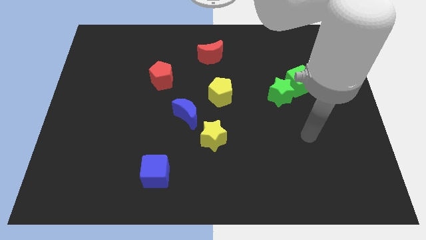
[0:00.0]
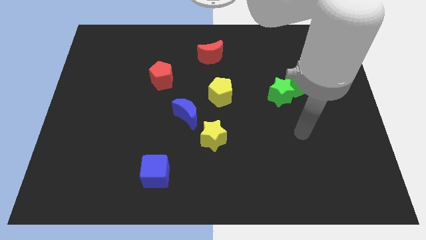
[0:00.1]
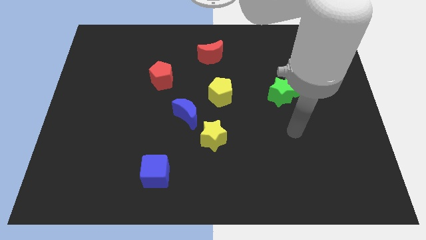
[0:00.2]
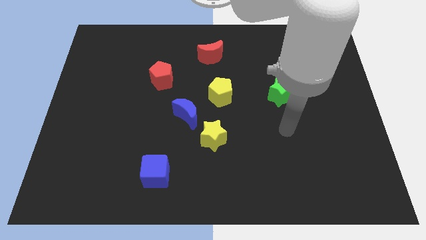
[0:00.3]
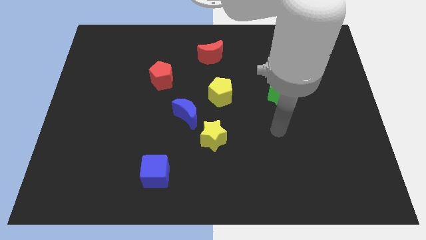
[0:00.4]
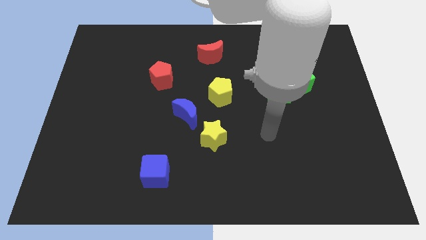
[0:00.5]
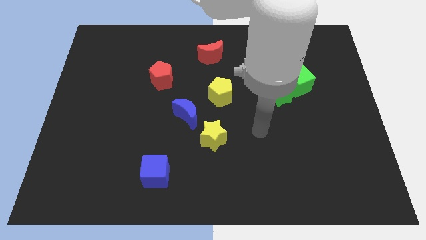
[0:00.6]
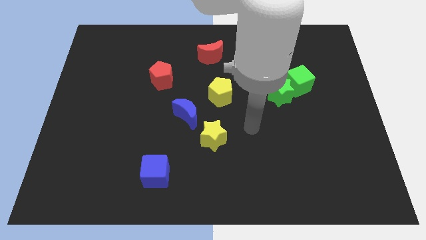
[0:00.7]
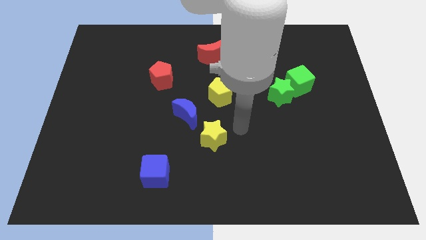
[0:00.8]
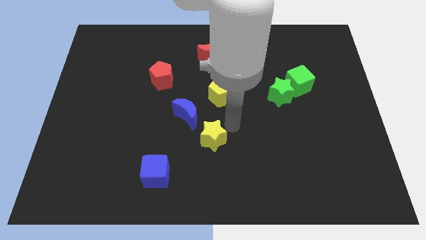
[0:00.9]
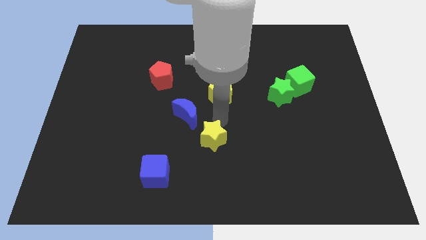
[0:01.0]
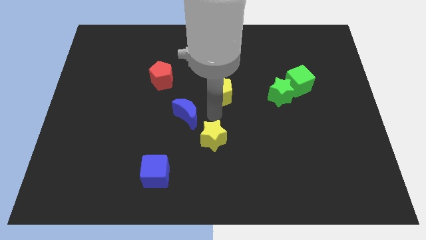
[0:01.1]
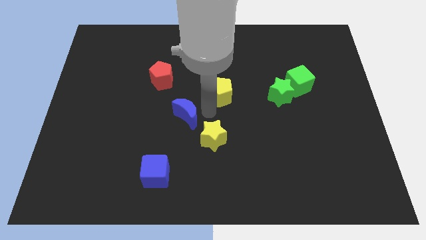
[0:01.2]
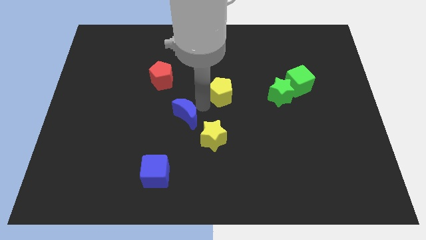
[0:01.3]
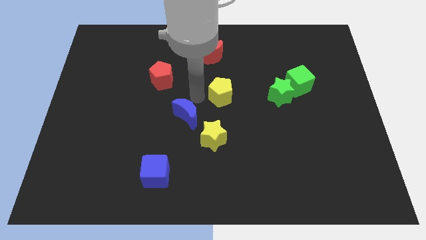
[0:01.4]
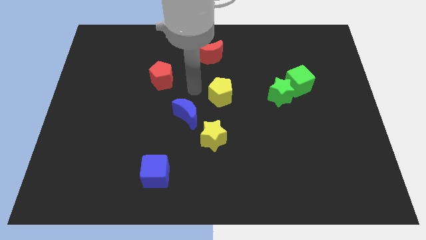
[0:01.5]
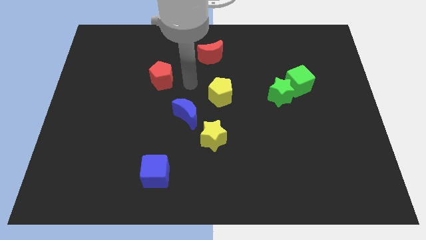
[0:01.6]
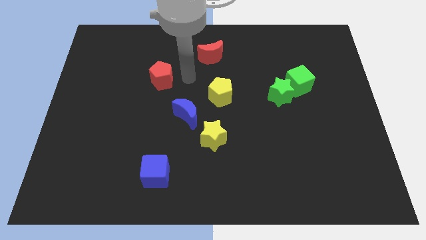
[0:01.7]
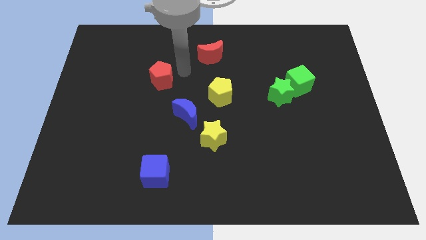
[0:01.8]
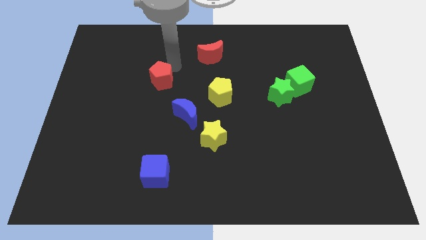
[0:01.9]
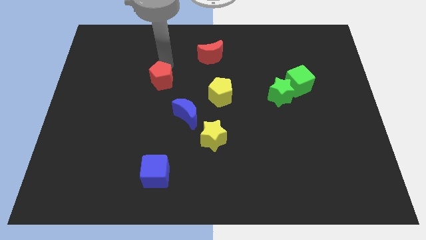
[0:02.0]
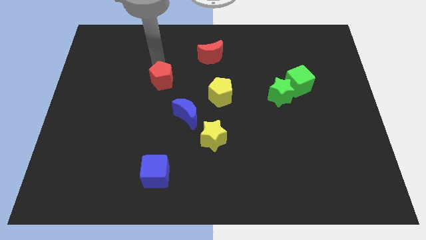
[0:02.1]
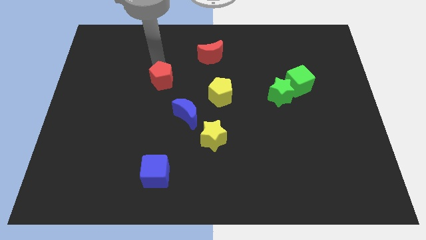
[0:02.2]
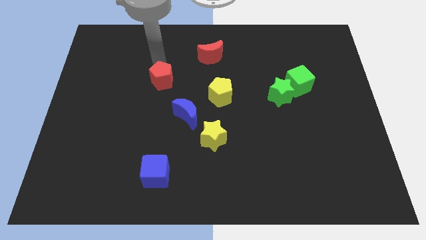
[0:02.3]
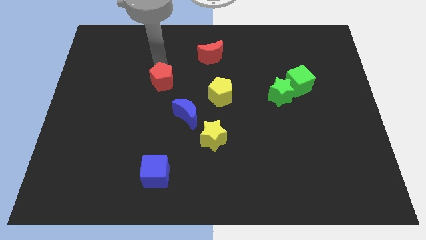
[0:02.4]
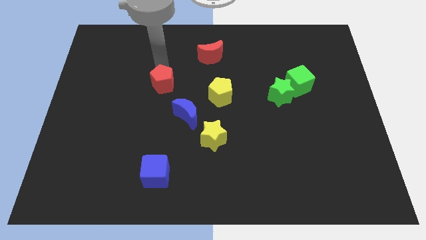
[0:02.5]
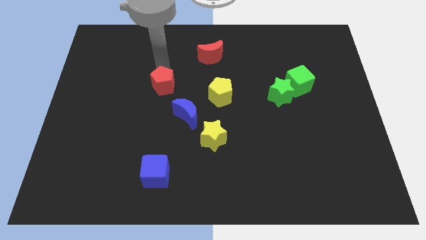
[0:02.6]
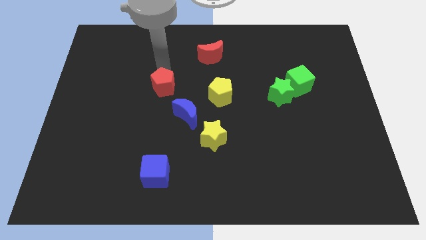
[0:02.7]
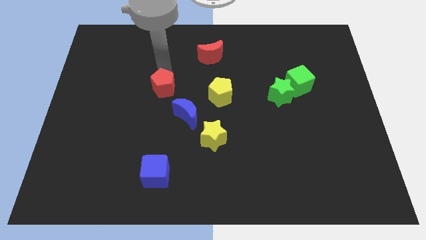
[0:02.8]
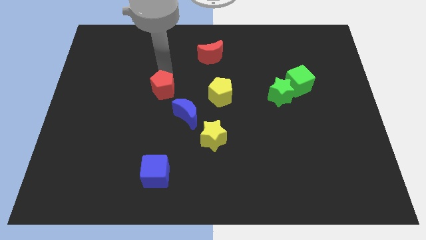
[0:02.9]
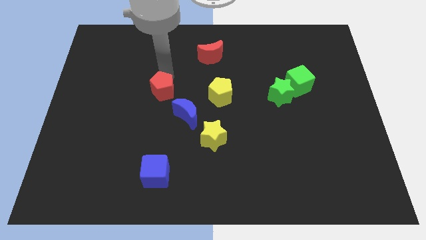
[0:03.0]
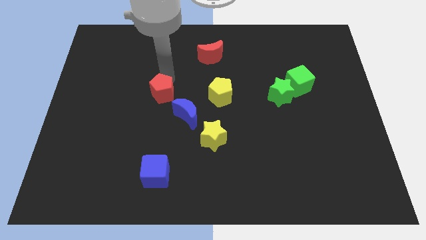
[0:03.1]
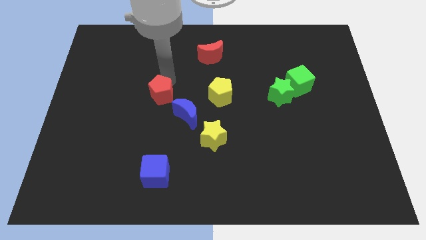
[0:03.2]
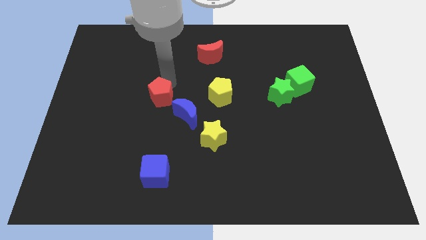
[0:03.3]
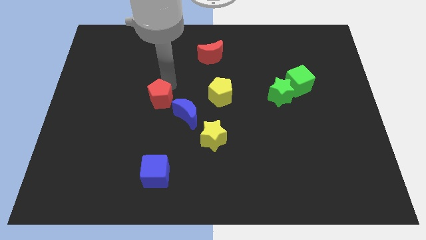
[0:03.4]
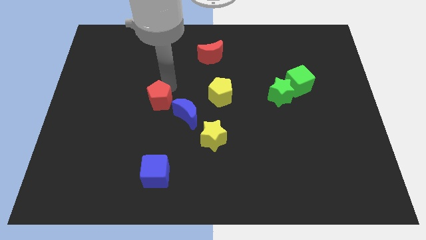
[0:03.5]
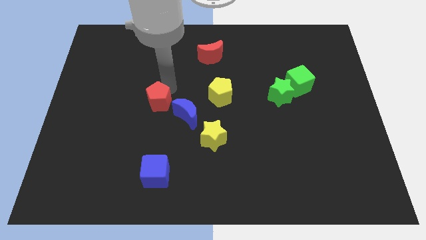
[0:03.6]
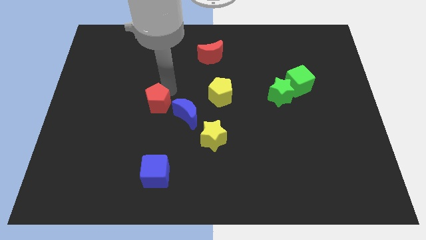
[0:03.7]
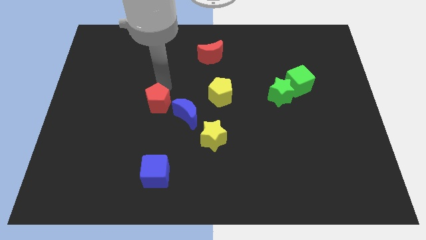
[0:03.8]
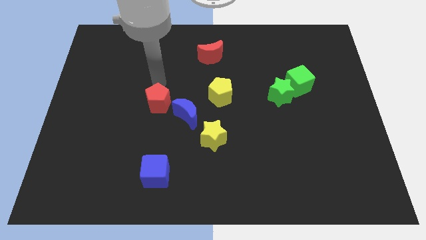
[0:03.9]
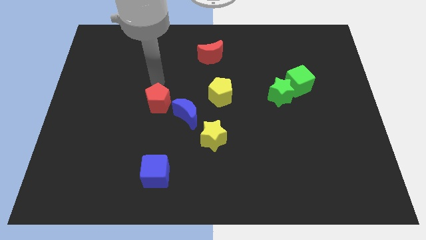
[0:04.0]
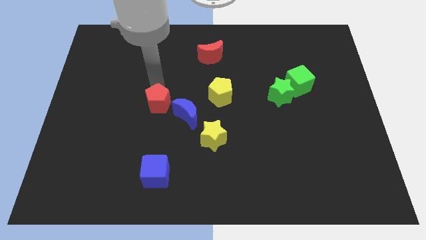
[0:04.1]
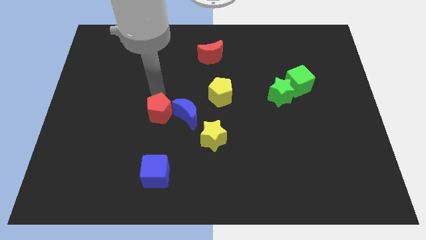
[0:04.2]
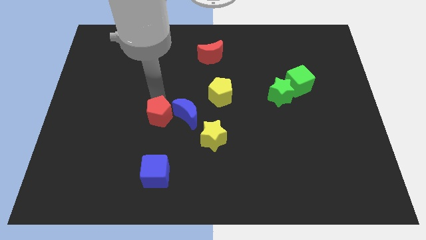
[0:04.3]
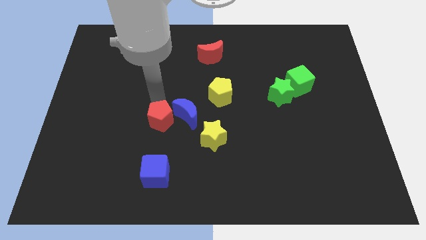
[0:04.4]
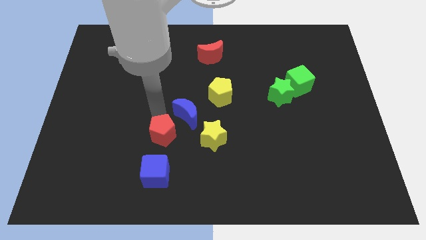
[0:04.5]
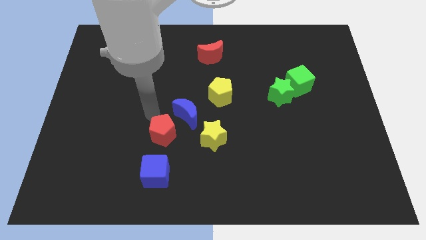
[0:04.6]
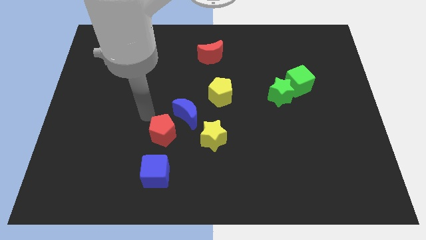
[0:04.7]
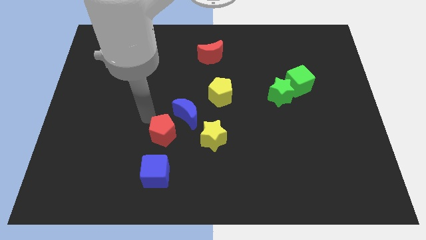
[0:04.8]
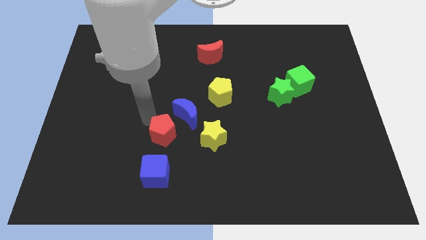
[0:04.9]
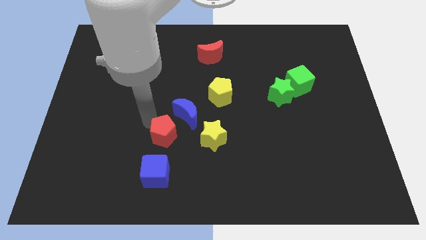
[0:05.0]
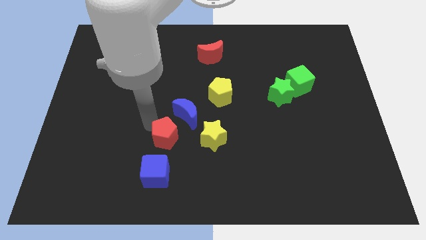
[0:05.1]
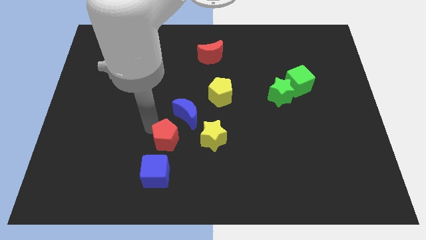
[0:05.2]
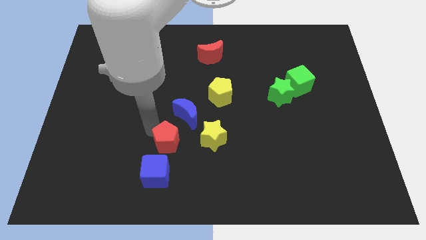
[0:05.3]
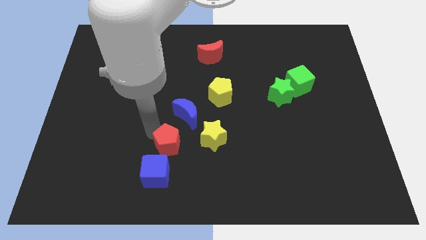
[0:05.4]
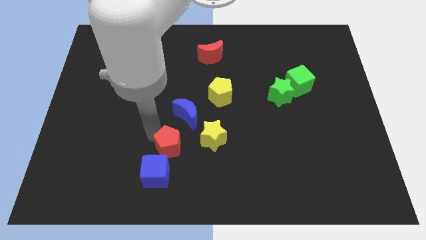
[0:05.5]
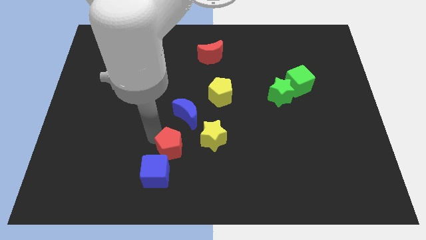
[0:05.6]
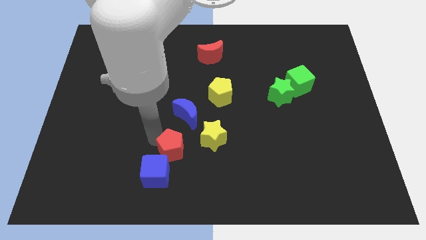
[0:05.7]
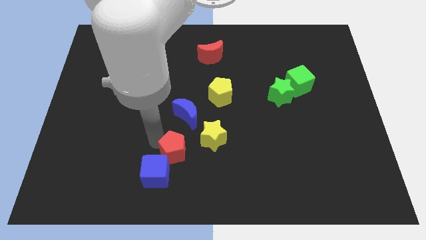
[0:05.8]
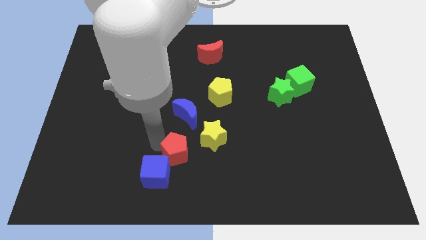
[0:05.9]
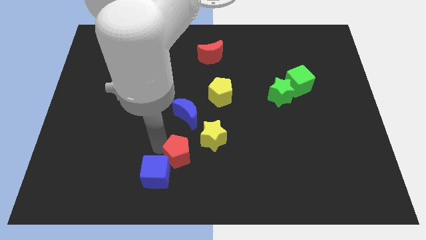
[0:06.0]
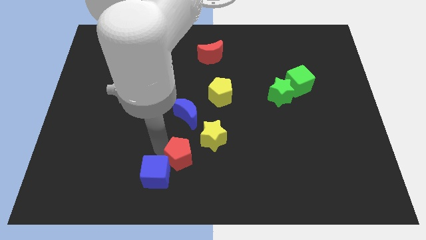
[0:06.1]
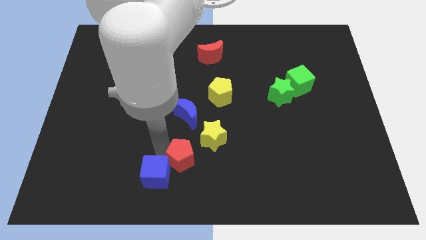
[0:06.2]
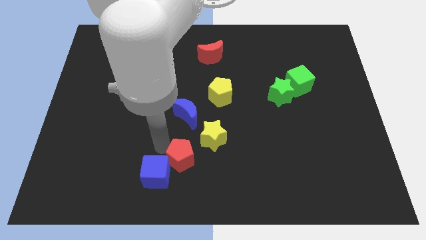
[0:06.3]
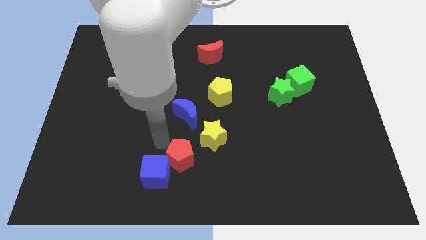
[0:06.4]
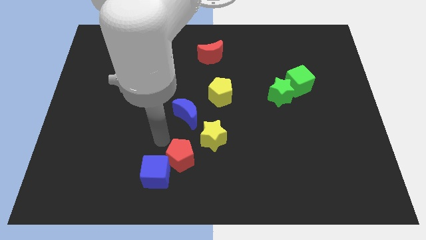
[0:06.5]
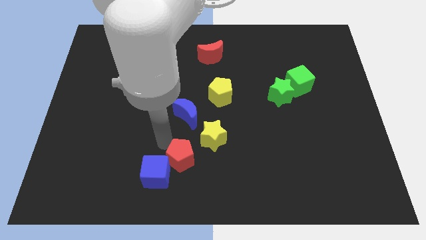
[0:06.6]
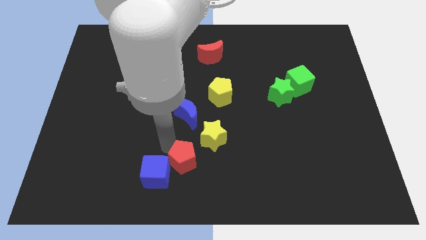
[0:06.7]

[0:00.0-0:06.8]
push the red pentagon to the bottom
